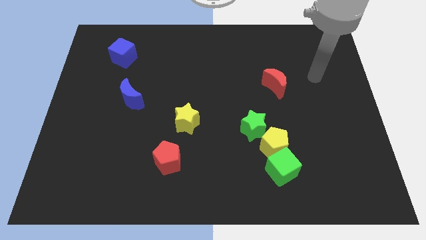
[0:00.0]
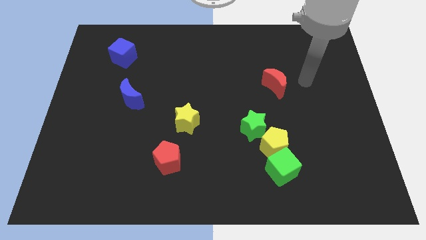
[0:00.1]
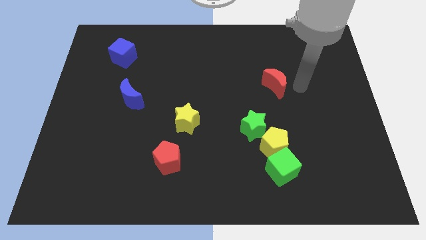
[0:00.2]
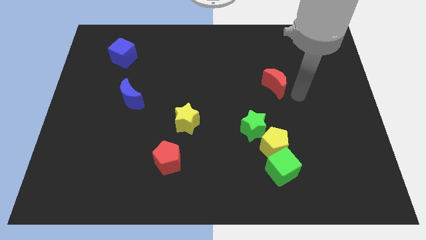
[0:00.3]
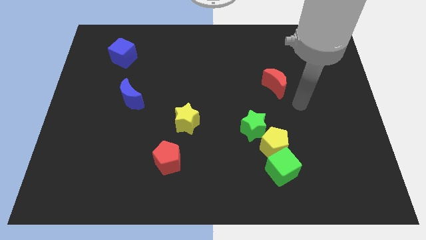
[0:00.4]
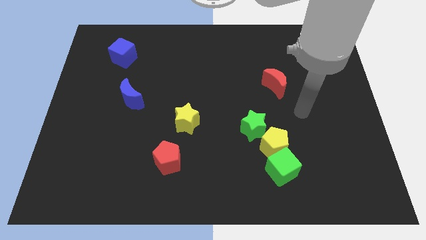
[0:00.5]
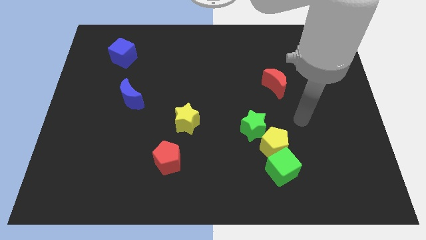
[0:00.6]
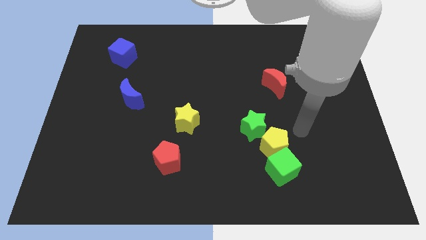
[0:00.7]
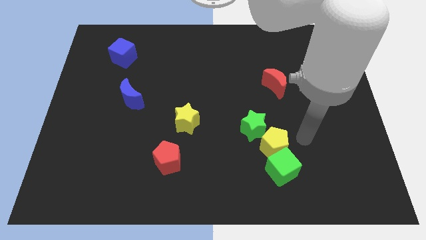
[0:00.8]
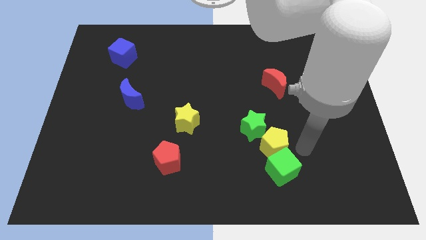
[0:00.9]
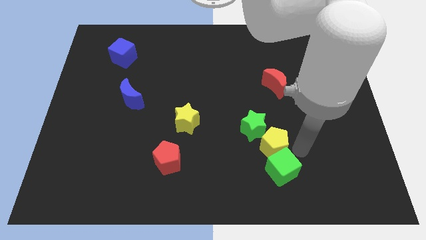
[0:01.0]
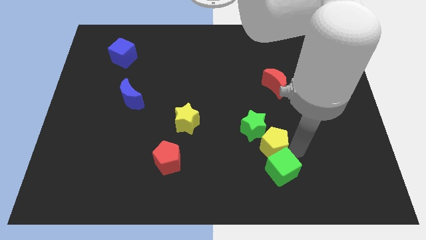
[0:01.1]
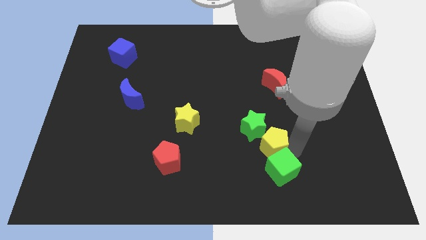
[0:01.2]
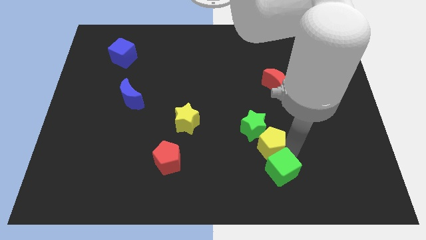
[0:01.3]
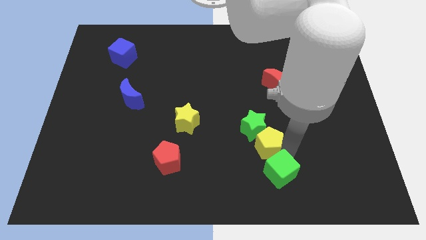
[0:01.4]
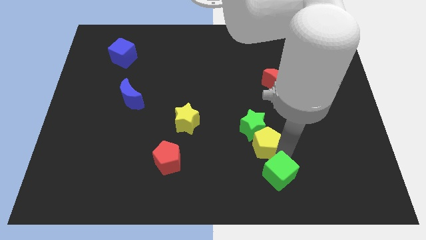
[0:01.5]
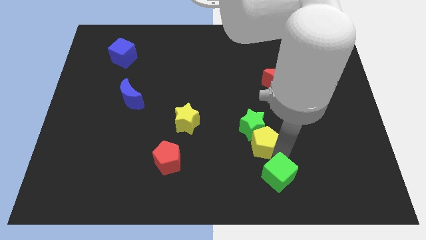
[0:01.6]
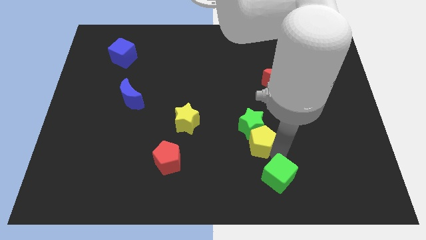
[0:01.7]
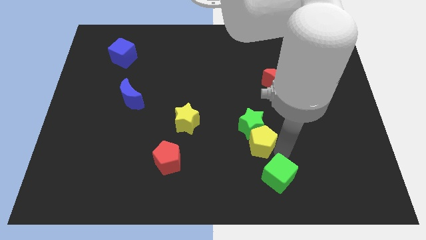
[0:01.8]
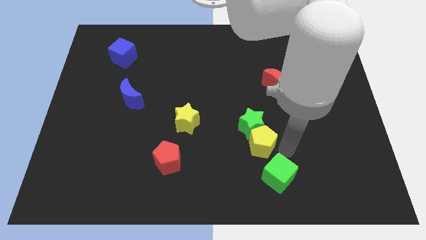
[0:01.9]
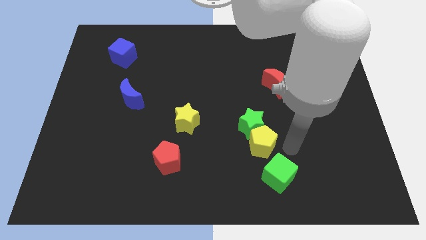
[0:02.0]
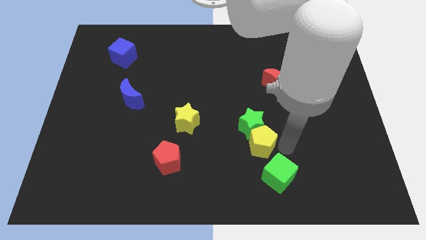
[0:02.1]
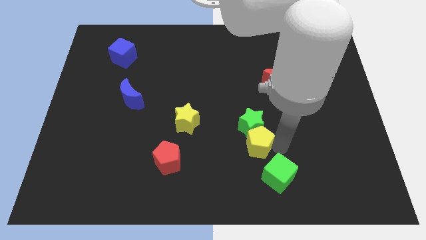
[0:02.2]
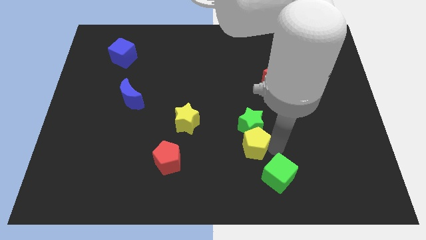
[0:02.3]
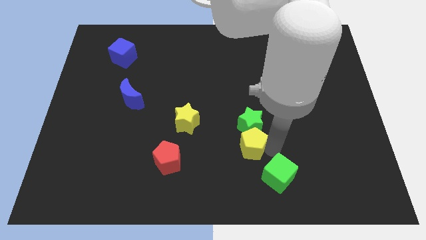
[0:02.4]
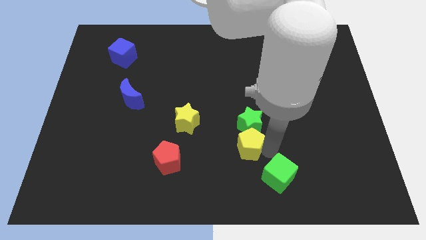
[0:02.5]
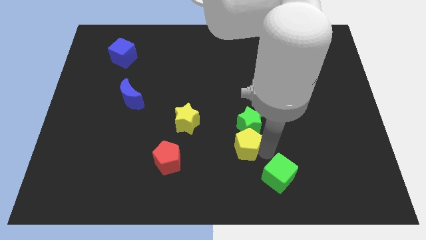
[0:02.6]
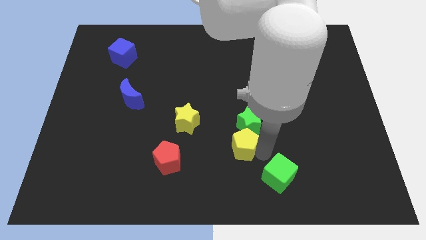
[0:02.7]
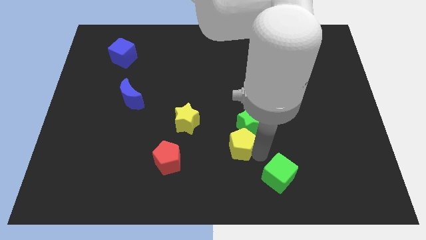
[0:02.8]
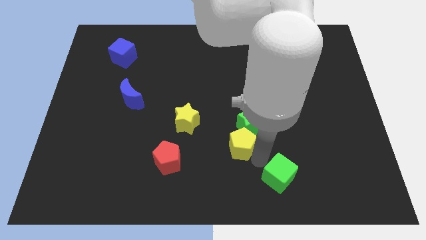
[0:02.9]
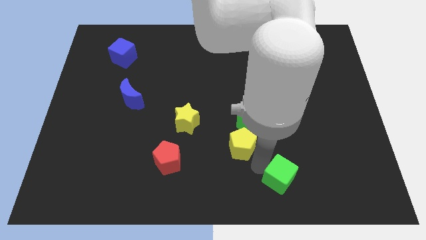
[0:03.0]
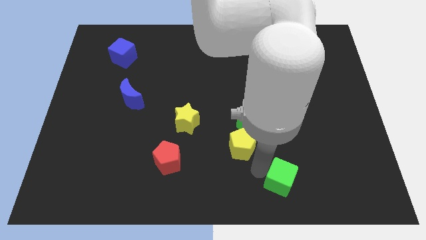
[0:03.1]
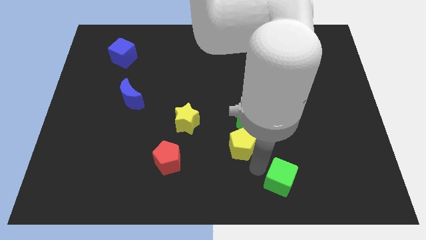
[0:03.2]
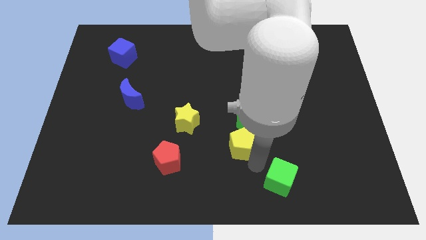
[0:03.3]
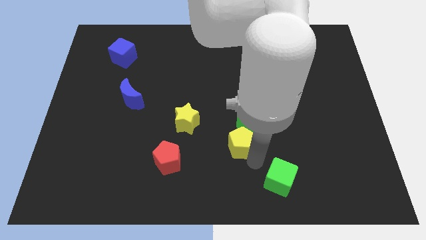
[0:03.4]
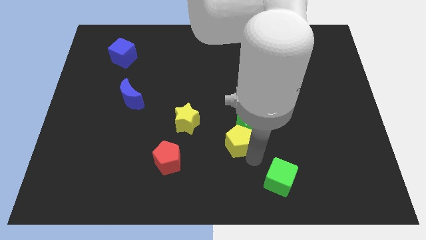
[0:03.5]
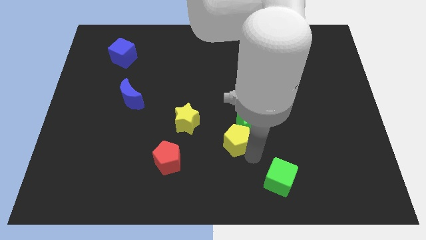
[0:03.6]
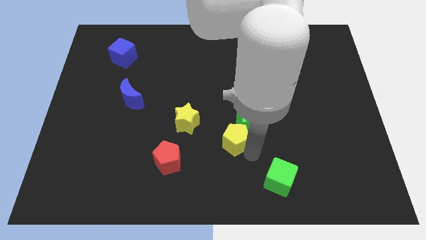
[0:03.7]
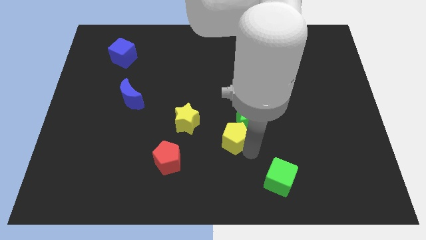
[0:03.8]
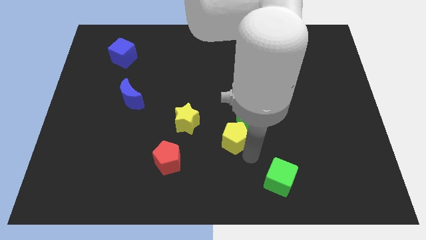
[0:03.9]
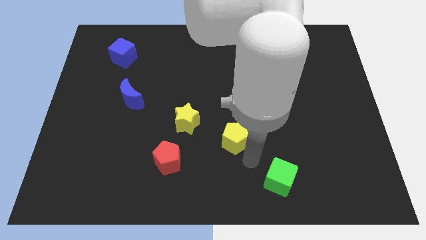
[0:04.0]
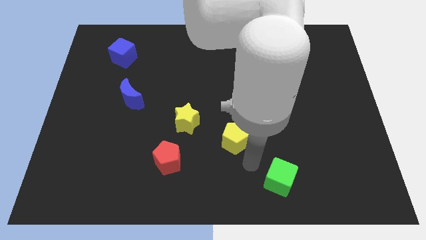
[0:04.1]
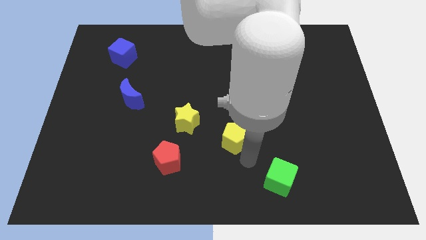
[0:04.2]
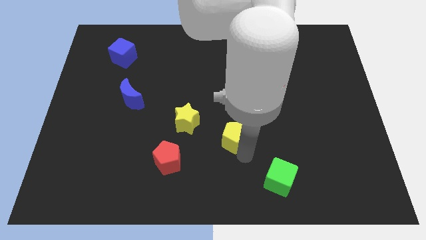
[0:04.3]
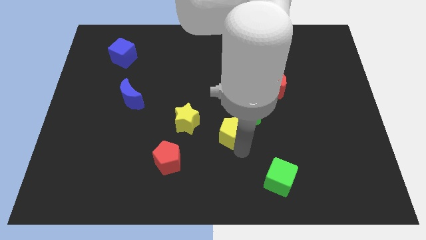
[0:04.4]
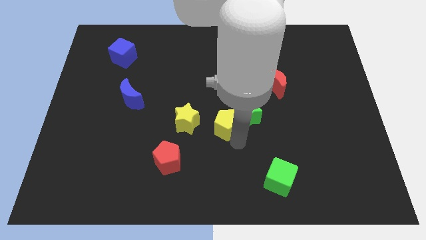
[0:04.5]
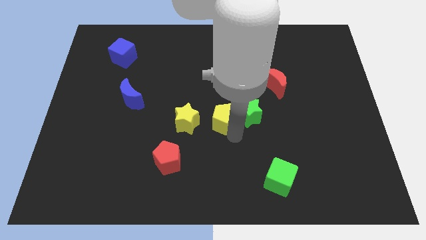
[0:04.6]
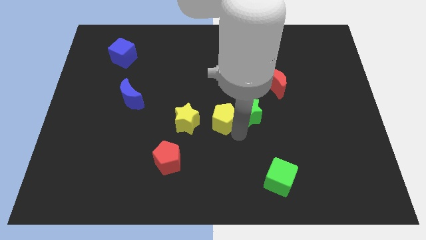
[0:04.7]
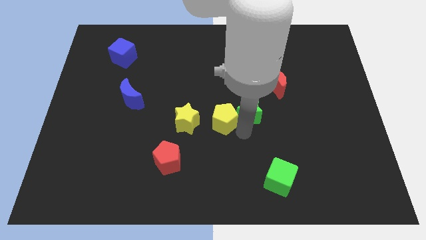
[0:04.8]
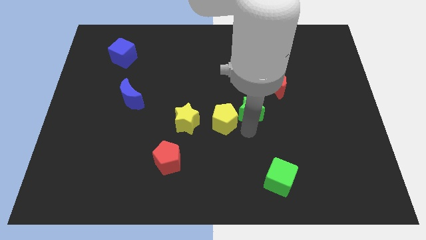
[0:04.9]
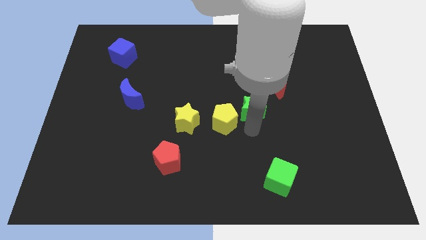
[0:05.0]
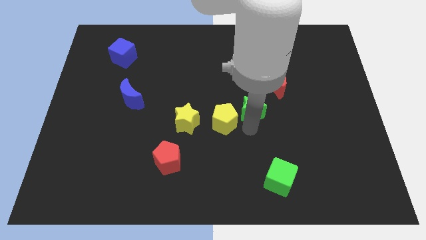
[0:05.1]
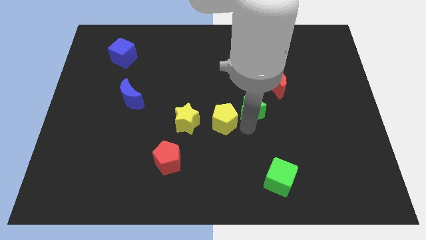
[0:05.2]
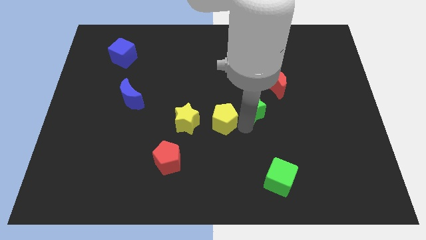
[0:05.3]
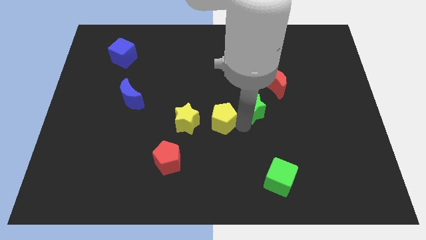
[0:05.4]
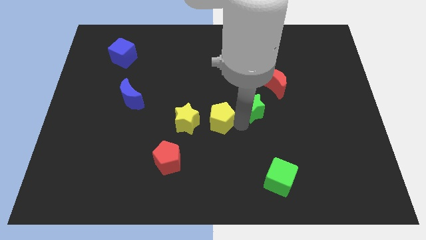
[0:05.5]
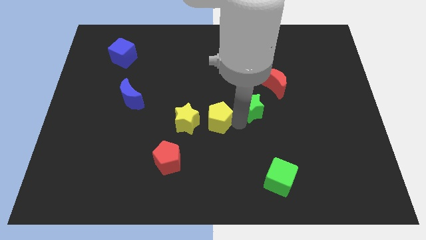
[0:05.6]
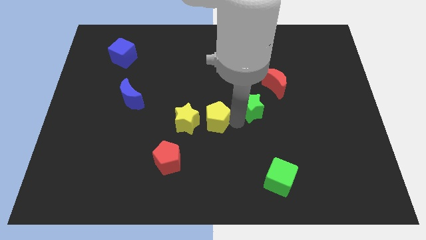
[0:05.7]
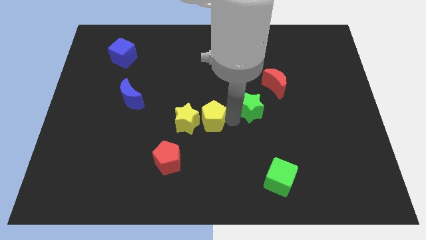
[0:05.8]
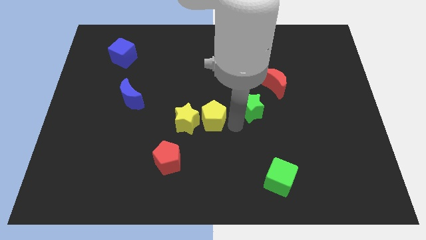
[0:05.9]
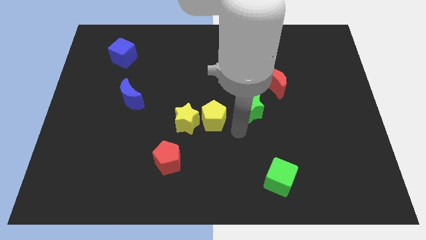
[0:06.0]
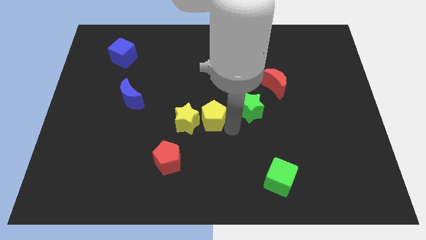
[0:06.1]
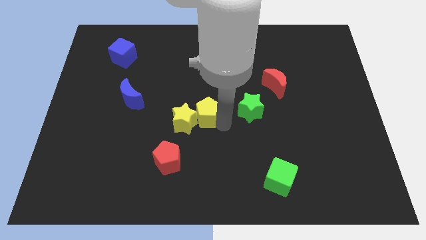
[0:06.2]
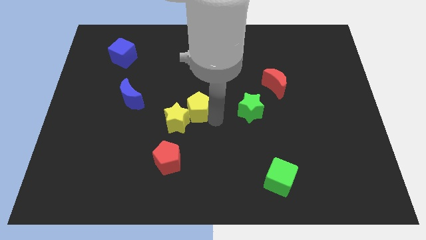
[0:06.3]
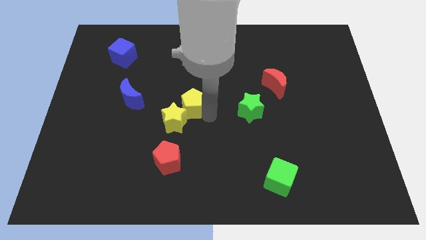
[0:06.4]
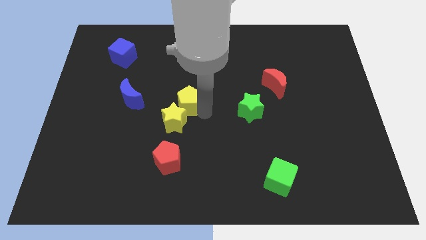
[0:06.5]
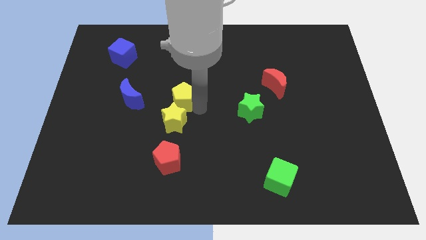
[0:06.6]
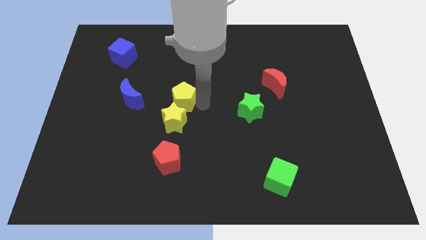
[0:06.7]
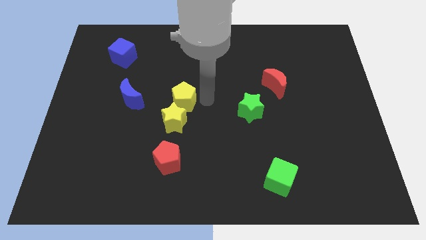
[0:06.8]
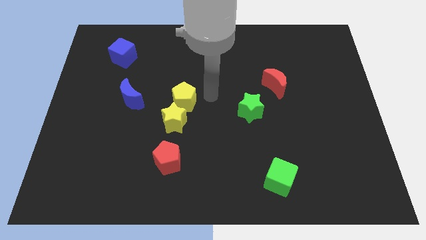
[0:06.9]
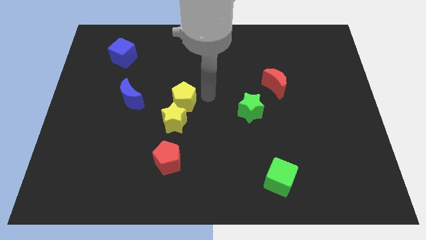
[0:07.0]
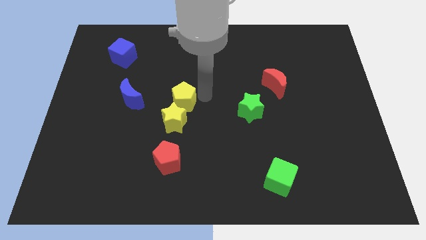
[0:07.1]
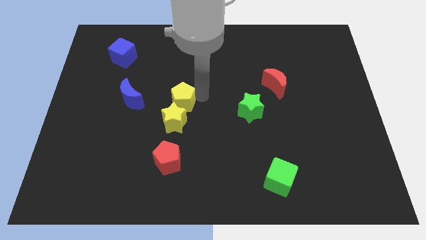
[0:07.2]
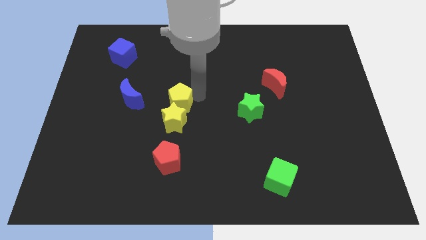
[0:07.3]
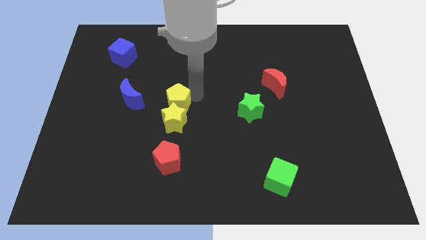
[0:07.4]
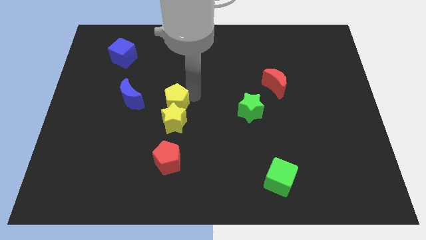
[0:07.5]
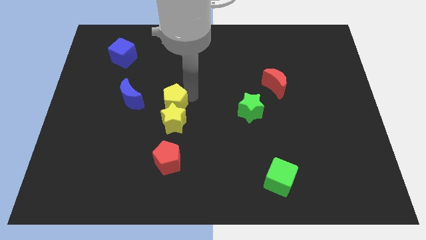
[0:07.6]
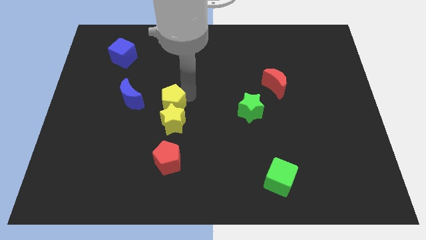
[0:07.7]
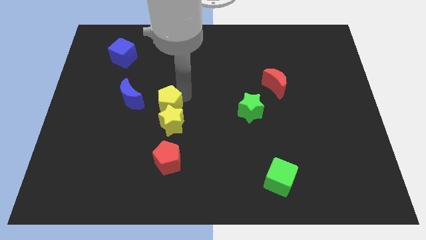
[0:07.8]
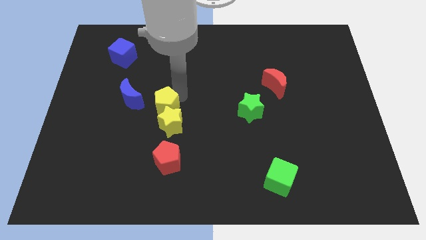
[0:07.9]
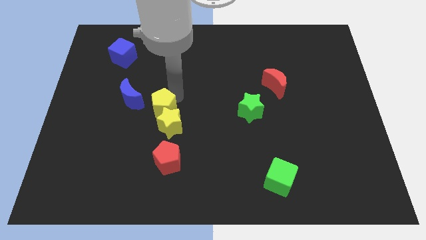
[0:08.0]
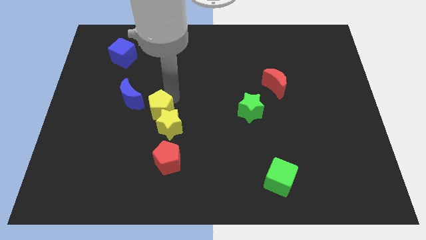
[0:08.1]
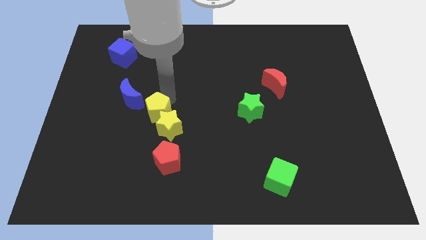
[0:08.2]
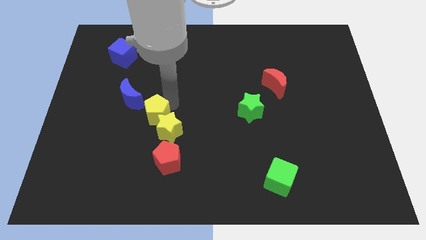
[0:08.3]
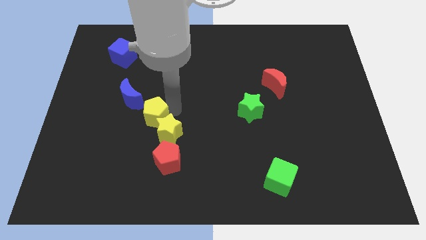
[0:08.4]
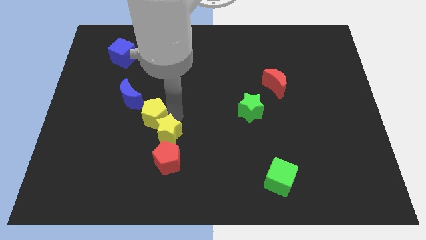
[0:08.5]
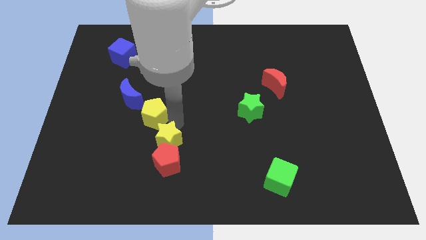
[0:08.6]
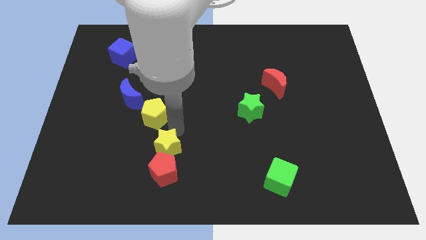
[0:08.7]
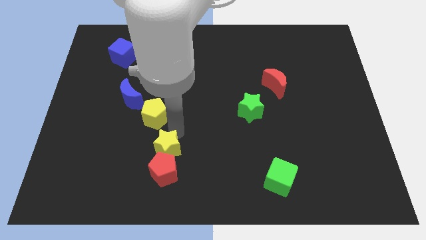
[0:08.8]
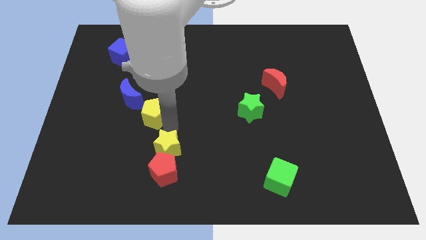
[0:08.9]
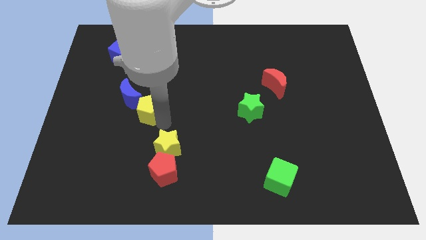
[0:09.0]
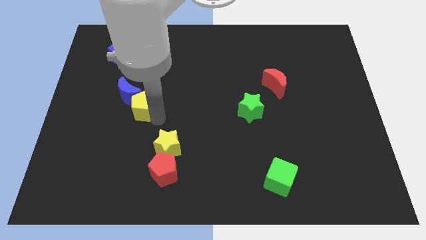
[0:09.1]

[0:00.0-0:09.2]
put the yellow pentagon next to the blue moon
